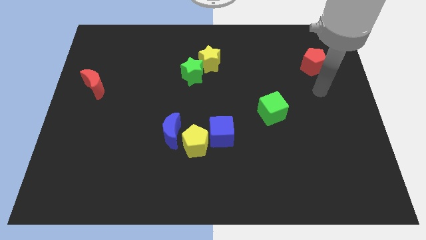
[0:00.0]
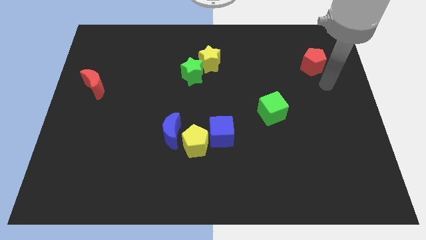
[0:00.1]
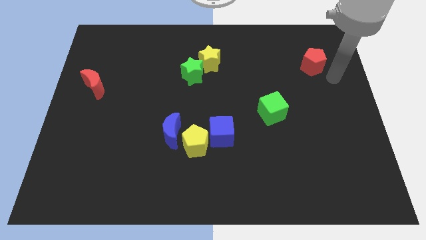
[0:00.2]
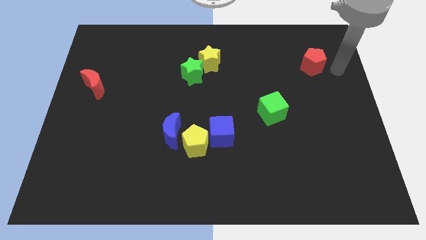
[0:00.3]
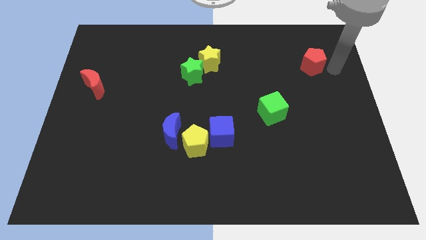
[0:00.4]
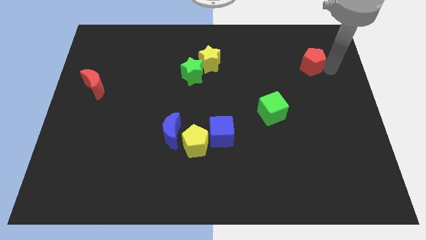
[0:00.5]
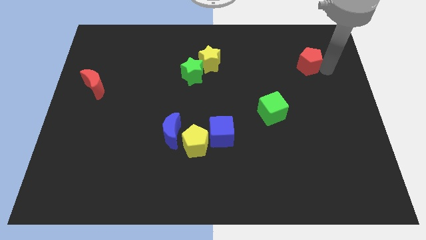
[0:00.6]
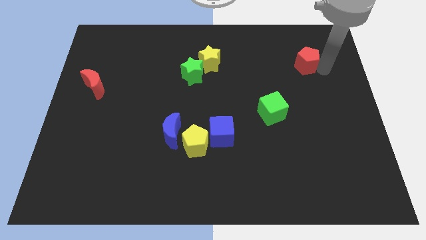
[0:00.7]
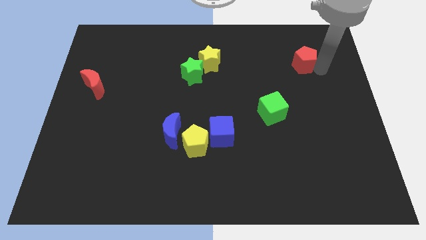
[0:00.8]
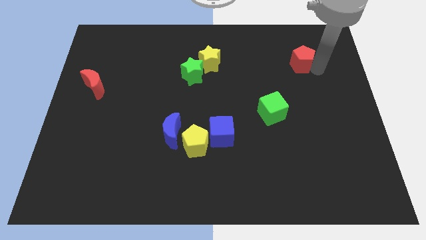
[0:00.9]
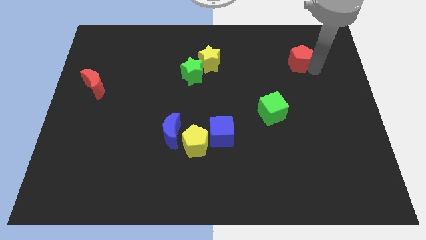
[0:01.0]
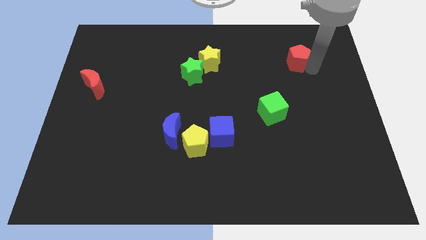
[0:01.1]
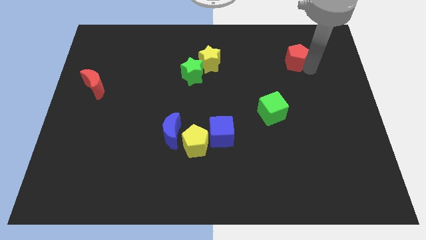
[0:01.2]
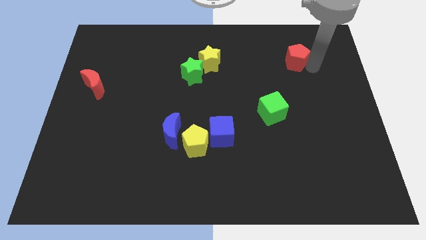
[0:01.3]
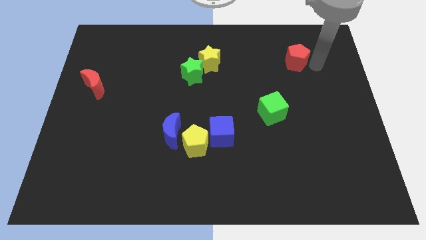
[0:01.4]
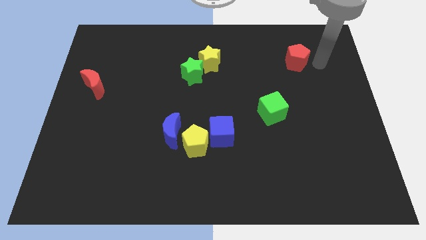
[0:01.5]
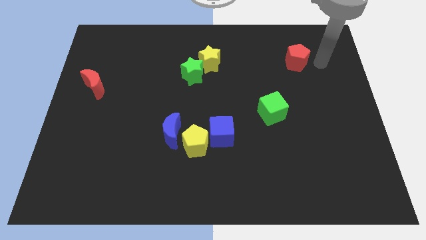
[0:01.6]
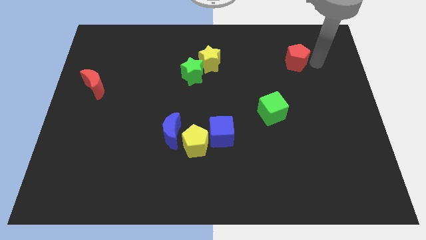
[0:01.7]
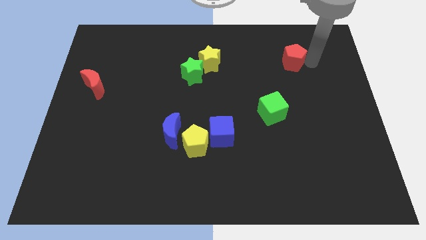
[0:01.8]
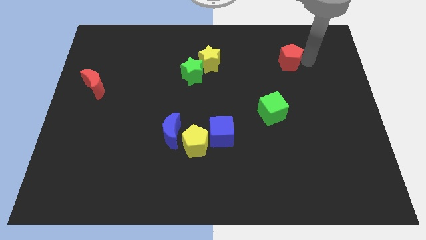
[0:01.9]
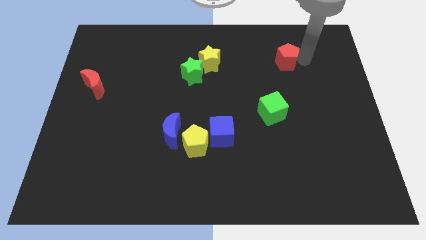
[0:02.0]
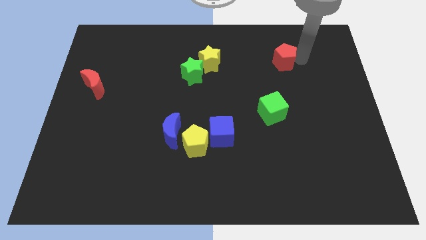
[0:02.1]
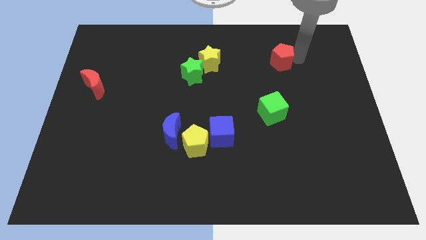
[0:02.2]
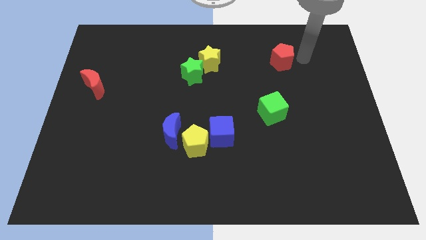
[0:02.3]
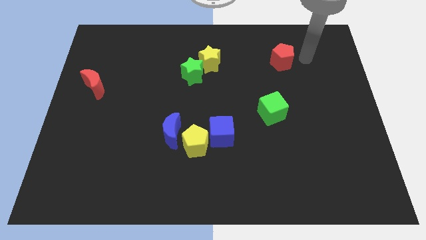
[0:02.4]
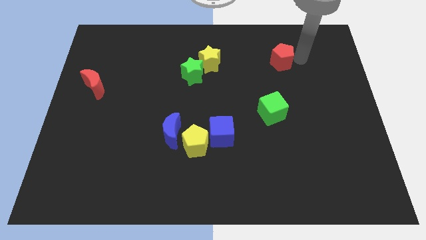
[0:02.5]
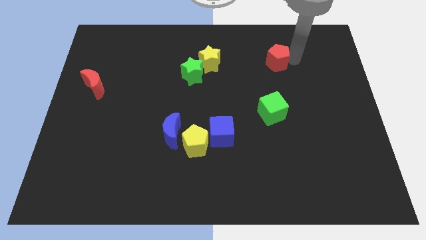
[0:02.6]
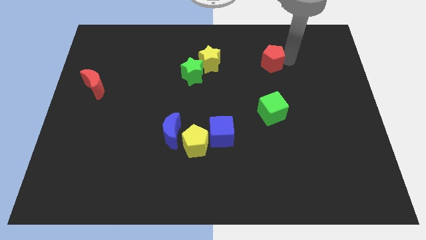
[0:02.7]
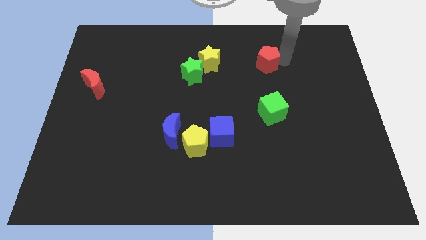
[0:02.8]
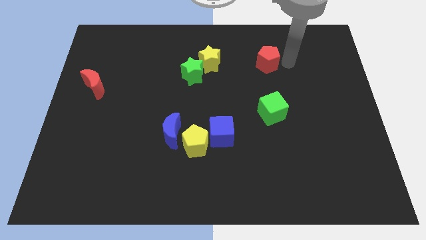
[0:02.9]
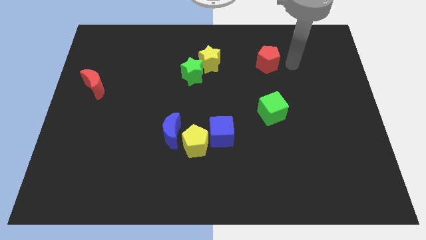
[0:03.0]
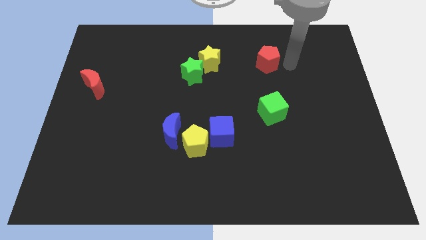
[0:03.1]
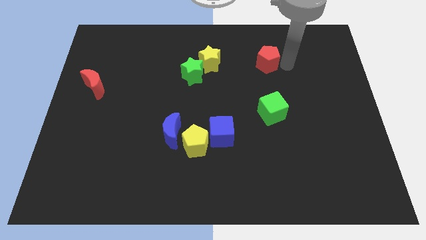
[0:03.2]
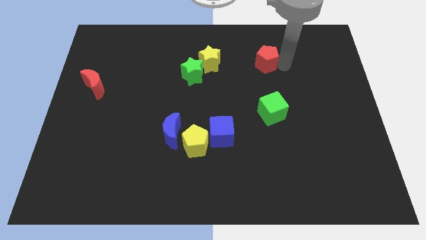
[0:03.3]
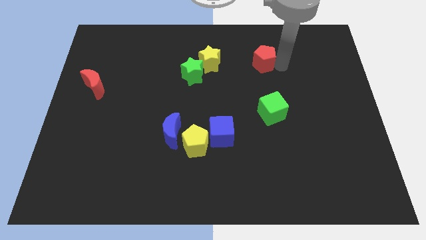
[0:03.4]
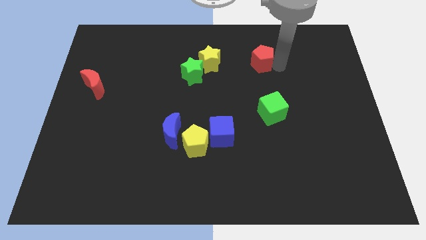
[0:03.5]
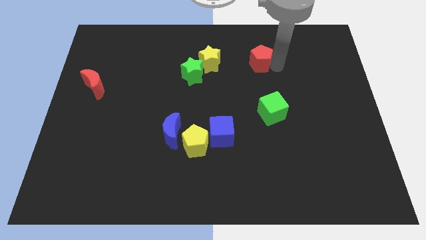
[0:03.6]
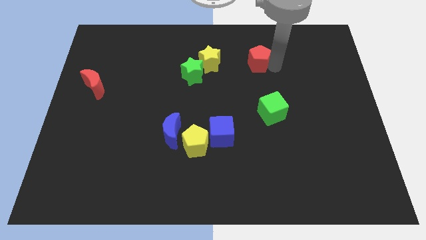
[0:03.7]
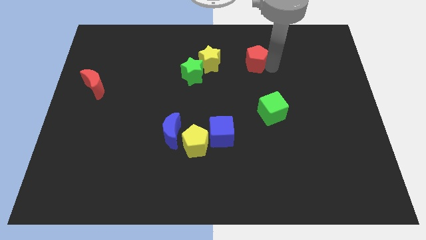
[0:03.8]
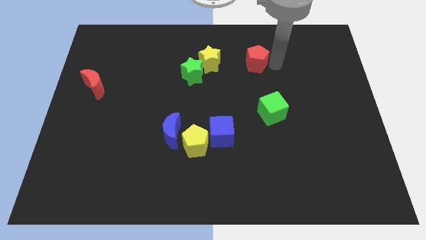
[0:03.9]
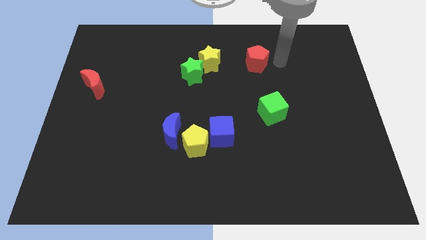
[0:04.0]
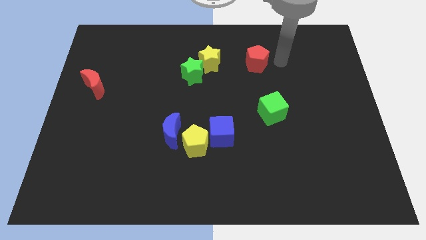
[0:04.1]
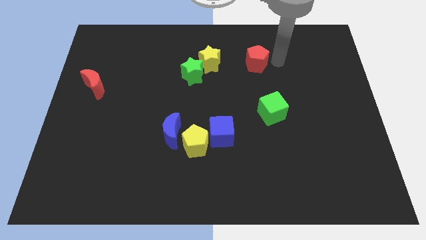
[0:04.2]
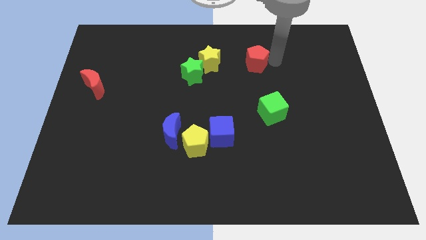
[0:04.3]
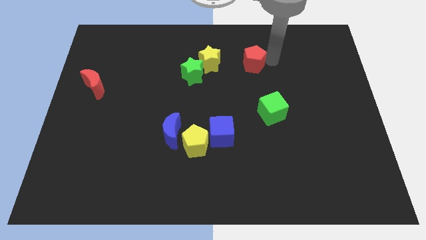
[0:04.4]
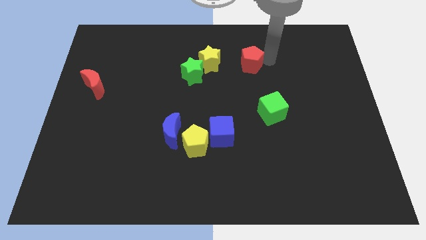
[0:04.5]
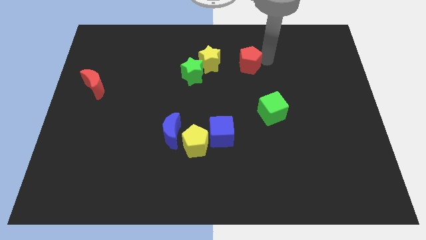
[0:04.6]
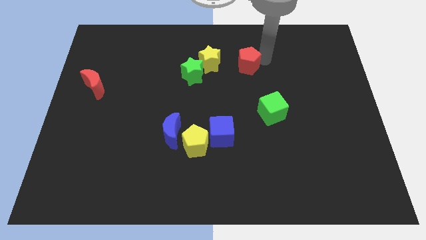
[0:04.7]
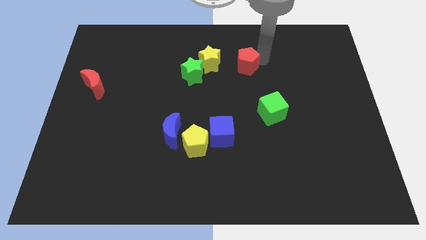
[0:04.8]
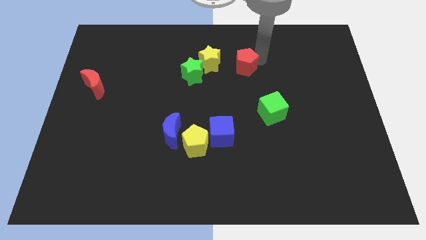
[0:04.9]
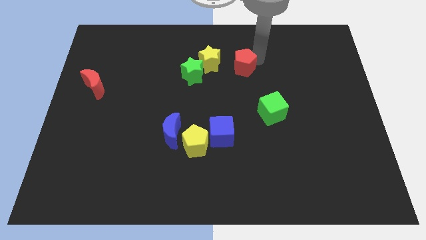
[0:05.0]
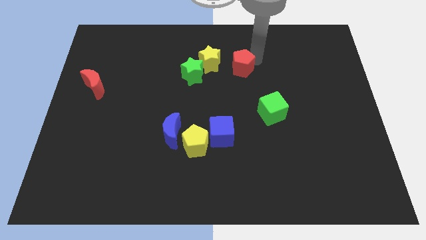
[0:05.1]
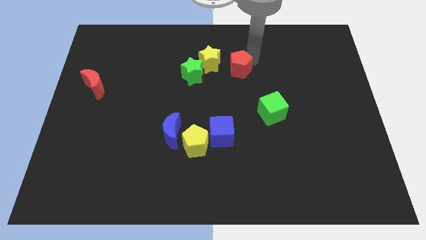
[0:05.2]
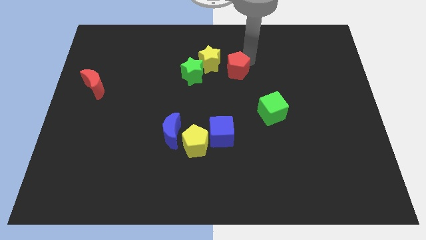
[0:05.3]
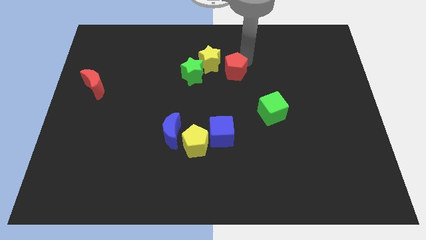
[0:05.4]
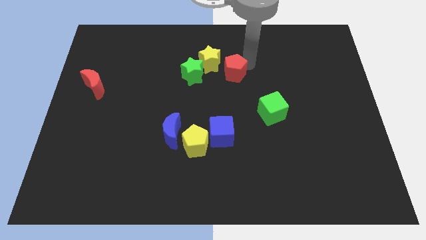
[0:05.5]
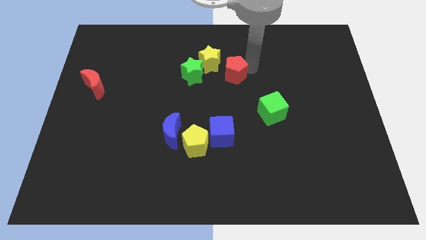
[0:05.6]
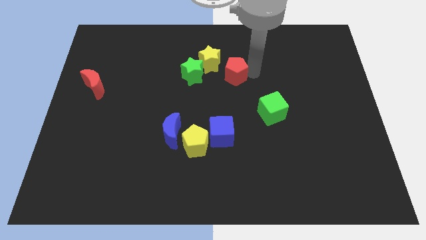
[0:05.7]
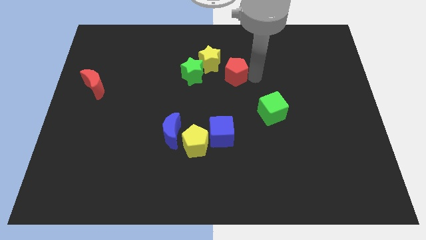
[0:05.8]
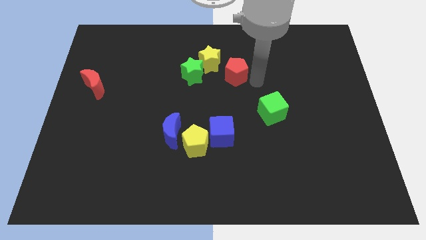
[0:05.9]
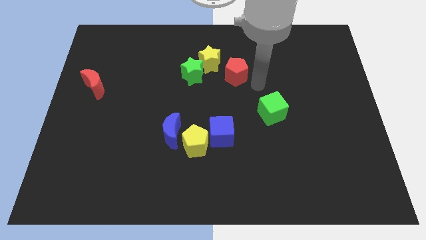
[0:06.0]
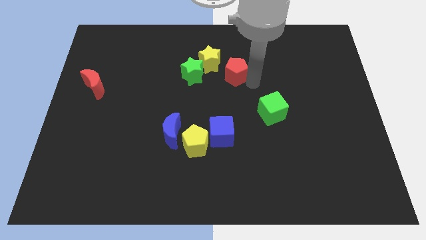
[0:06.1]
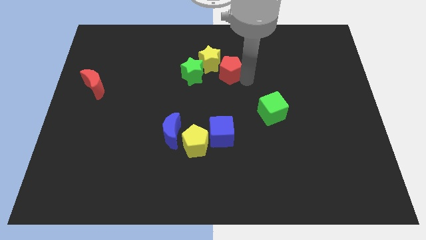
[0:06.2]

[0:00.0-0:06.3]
move the red pentagon to the yellow star
